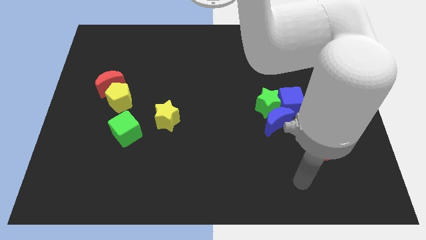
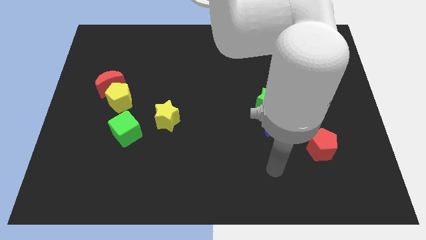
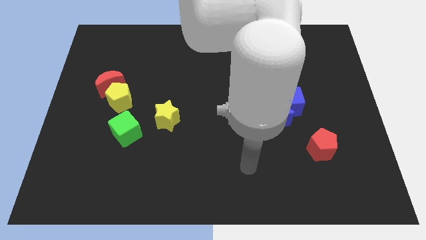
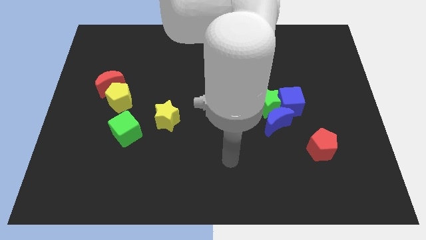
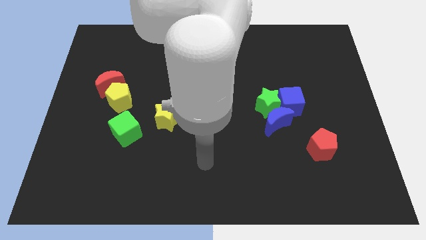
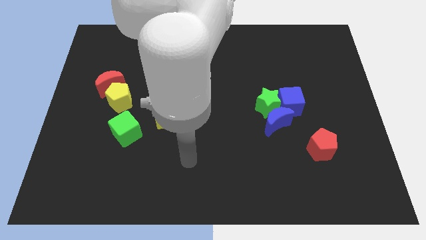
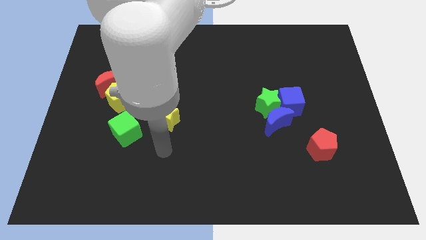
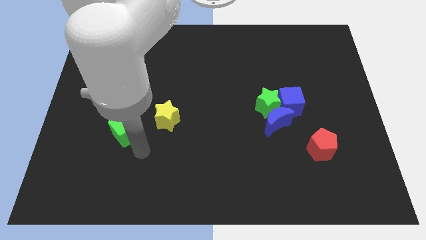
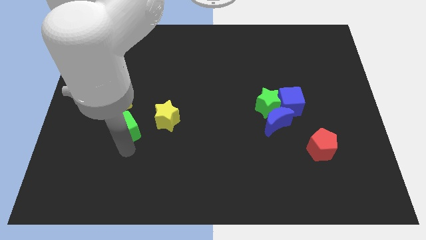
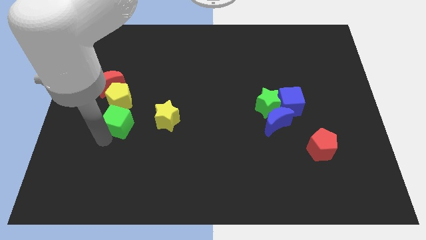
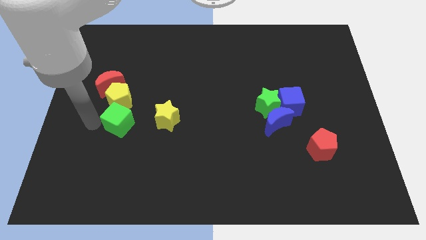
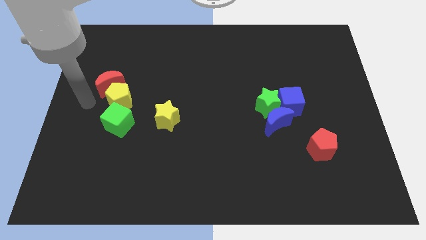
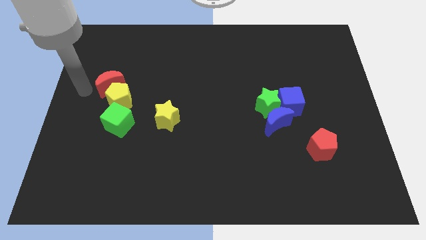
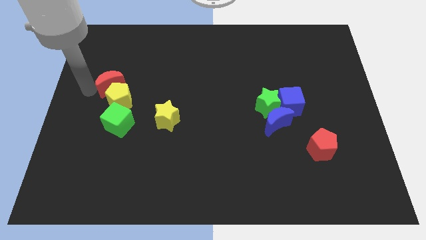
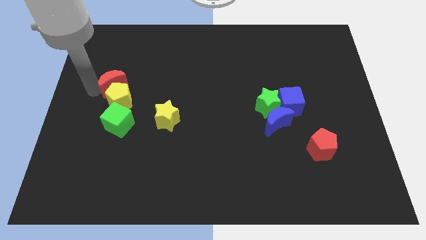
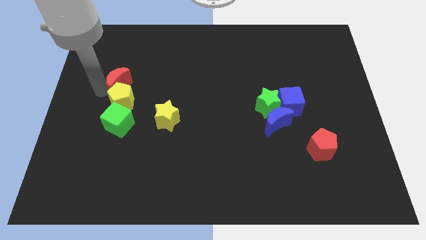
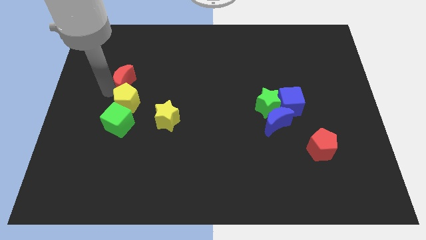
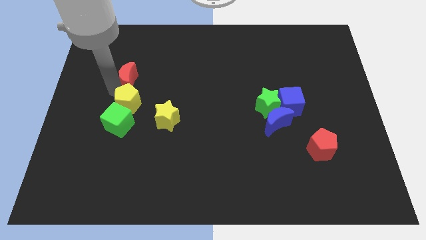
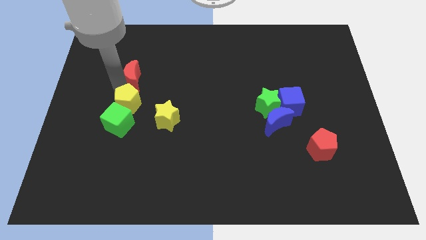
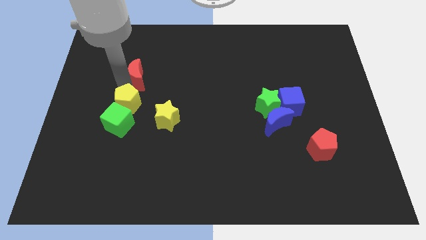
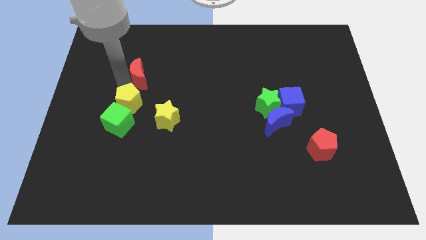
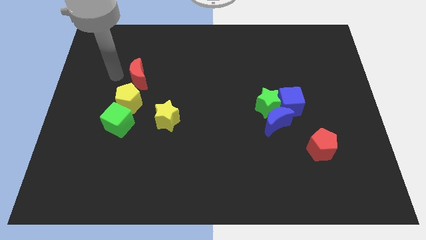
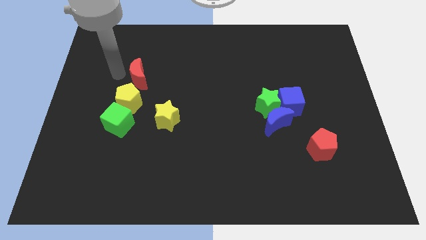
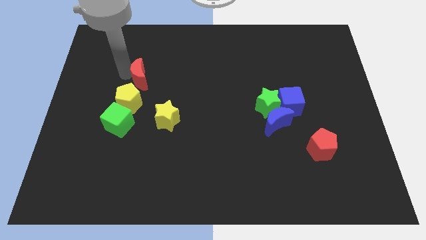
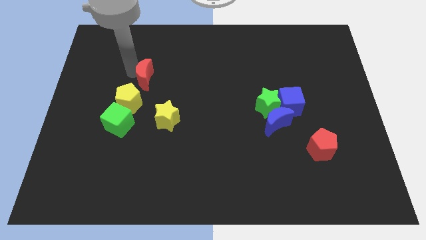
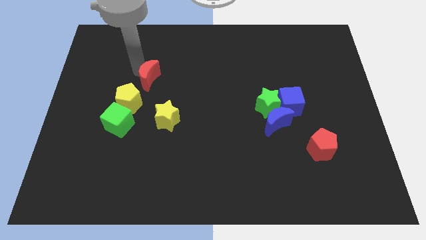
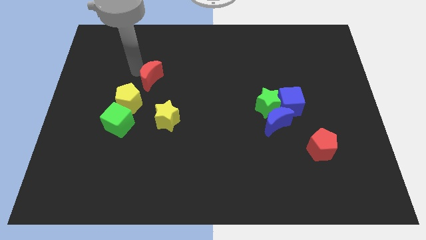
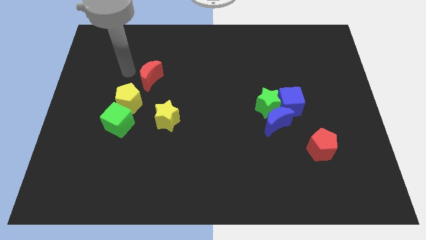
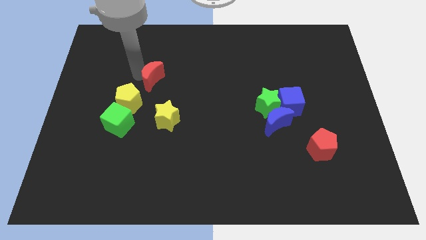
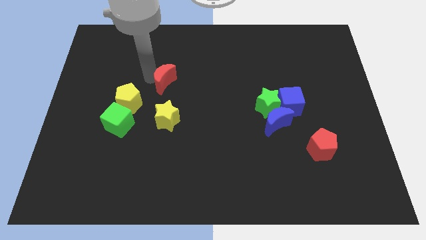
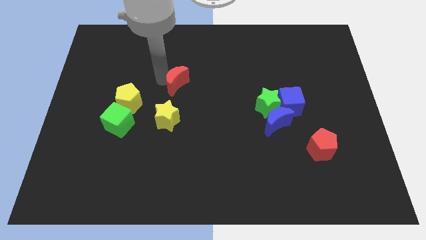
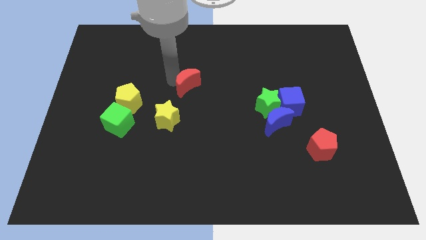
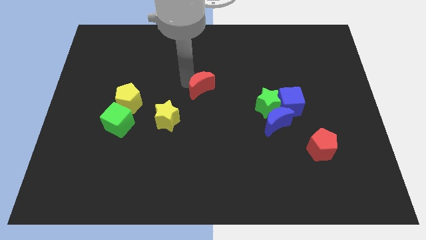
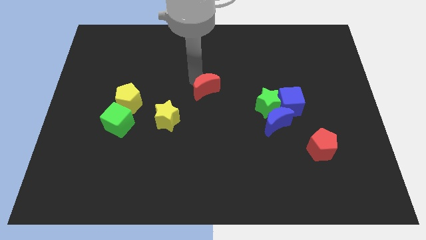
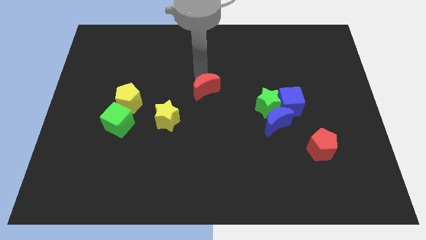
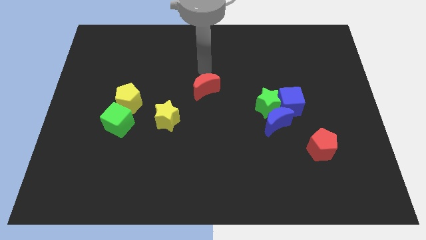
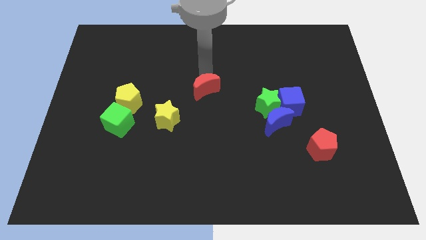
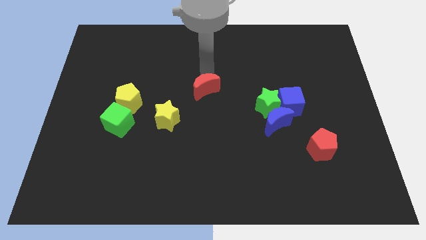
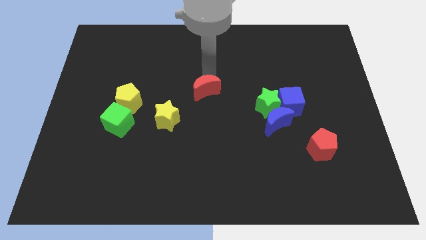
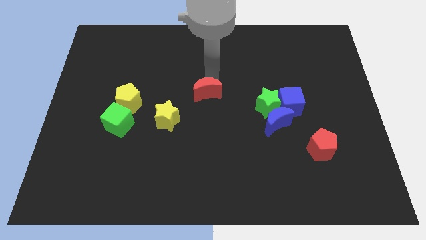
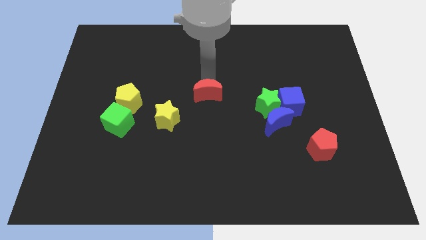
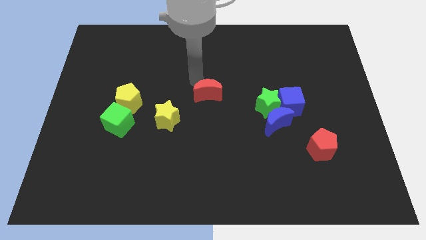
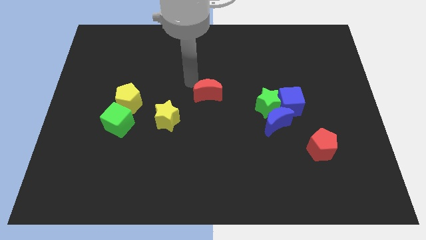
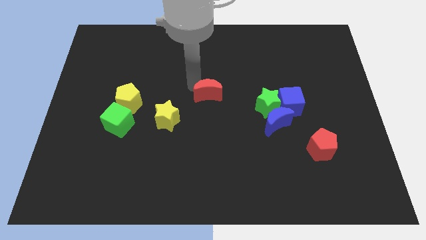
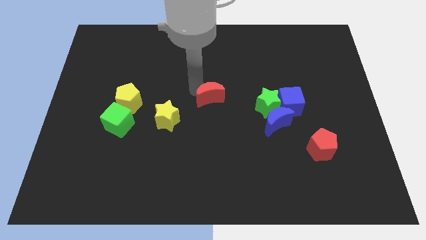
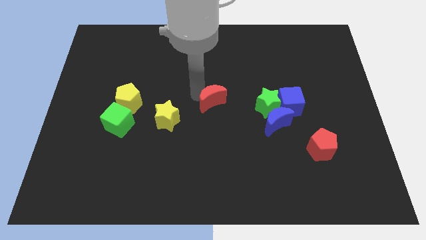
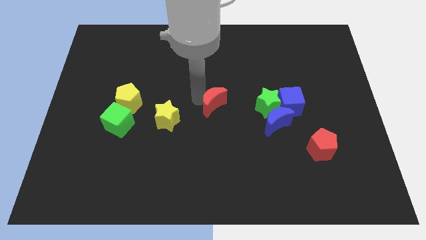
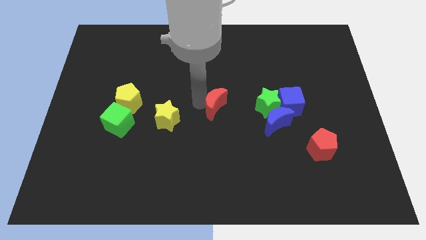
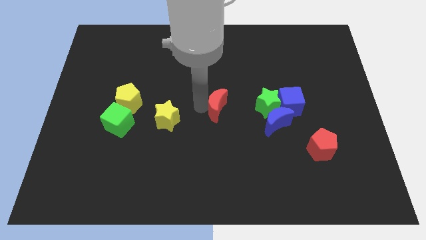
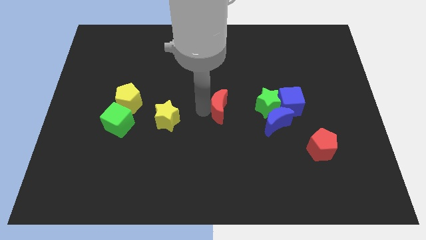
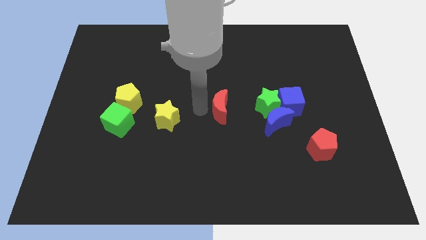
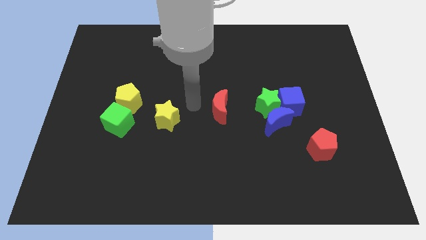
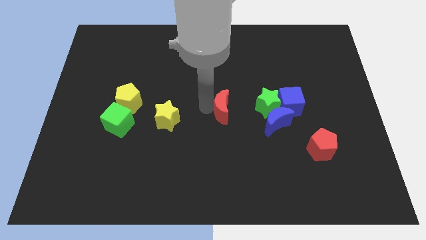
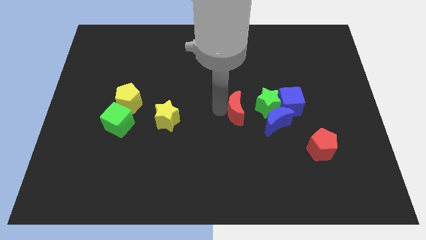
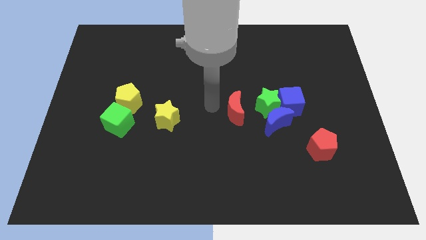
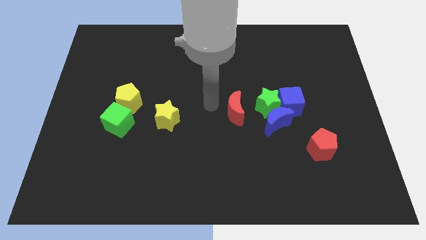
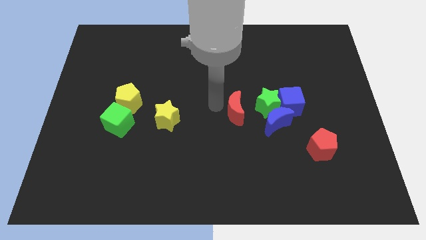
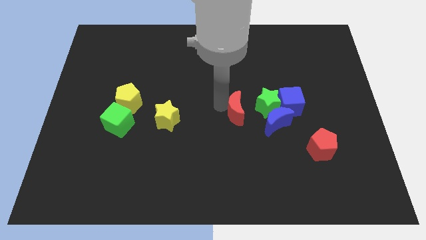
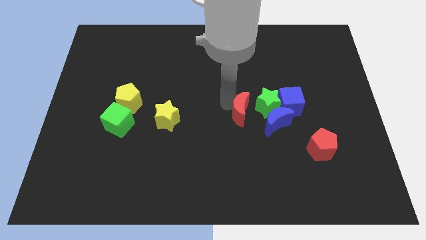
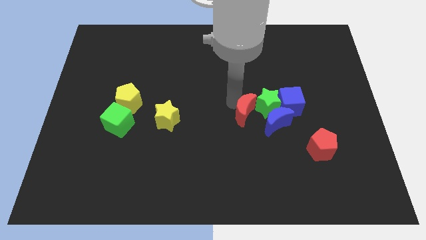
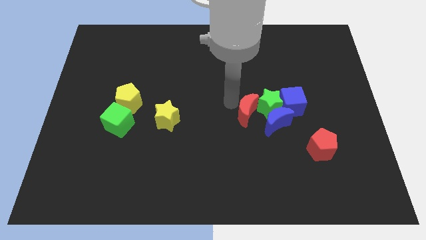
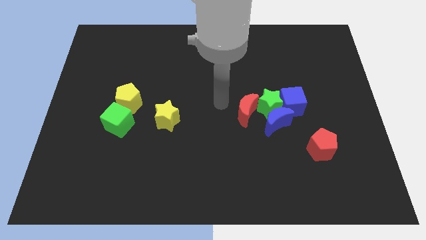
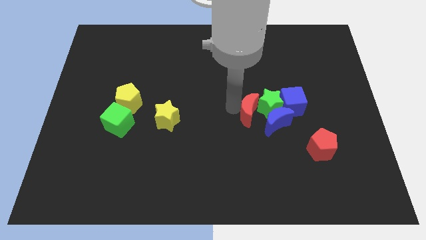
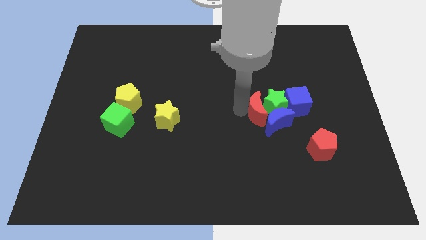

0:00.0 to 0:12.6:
put the red moon towards the blue moon
